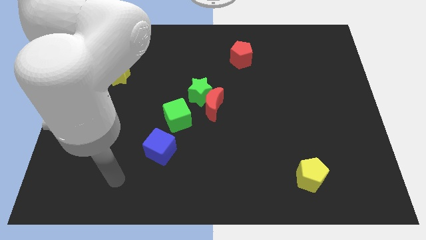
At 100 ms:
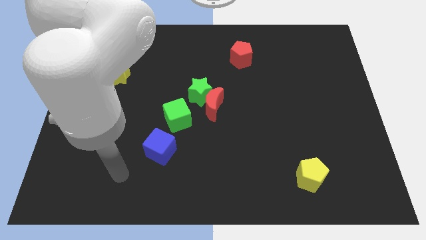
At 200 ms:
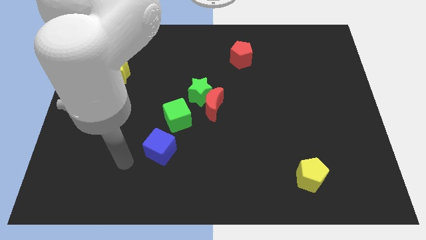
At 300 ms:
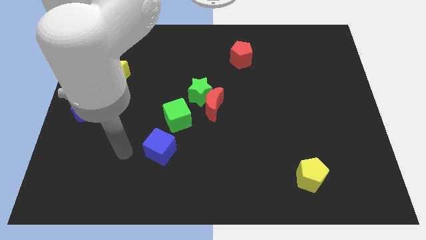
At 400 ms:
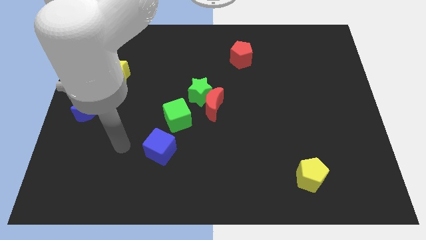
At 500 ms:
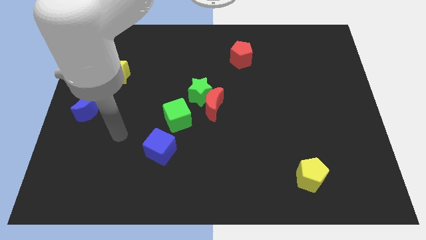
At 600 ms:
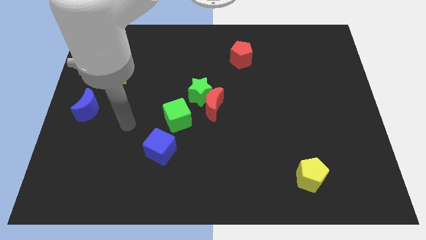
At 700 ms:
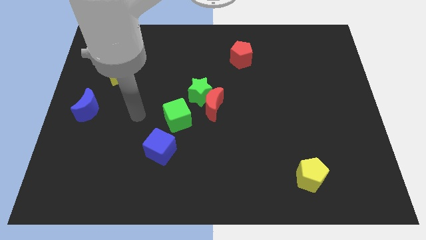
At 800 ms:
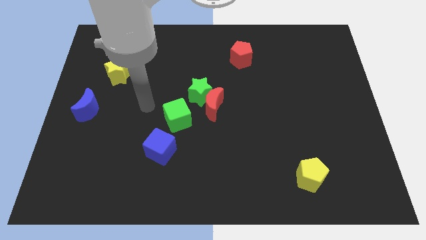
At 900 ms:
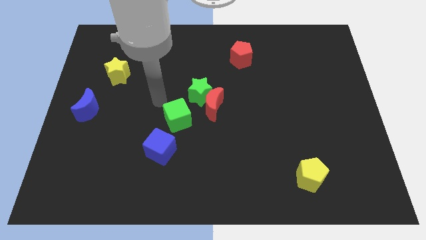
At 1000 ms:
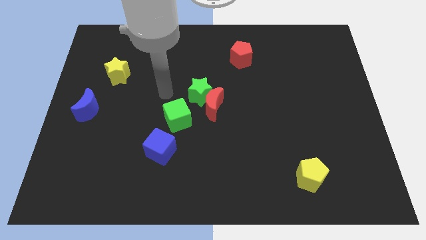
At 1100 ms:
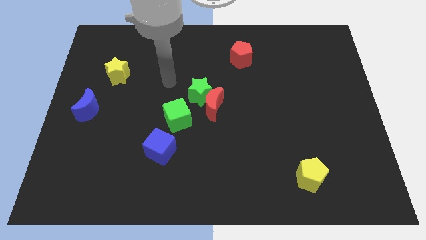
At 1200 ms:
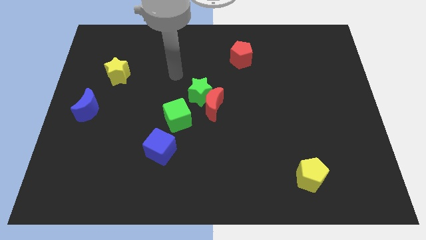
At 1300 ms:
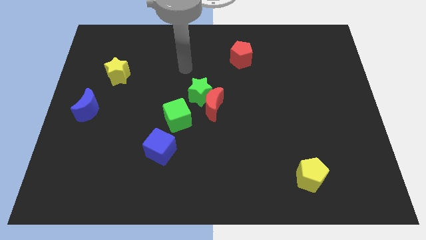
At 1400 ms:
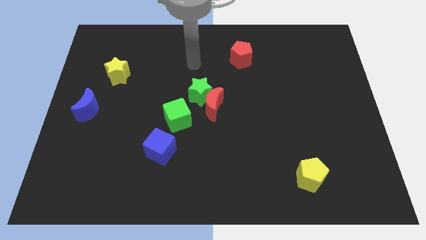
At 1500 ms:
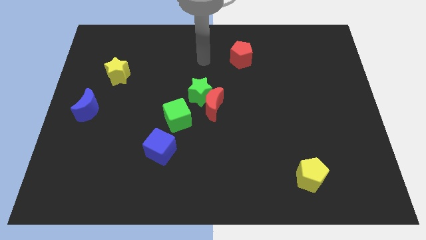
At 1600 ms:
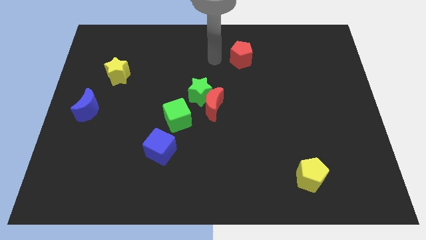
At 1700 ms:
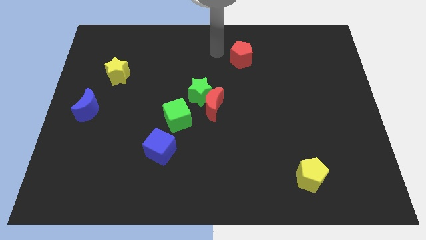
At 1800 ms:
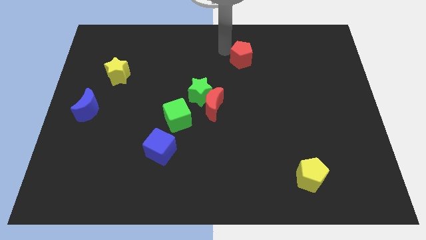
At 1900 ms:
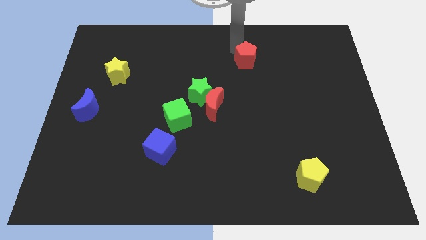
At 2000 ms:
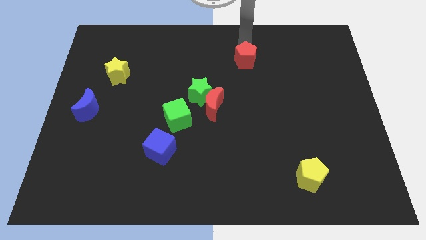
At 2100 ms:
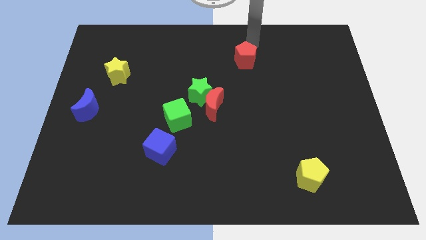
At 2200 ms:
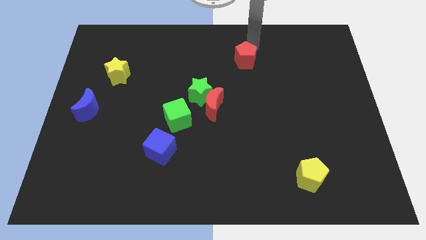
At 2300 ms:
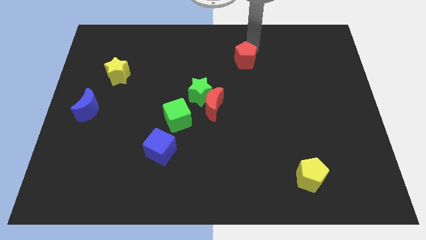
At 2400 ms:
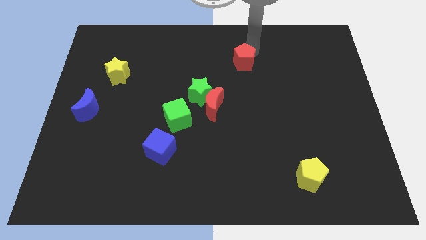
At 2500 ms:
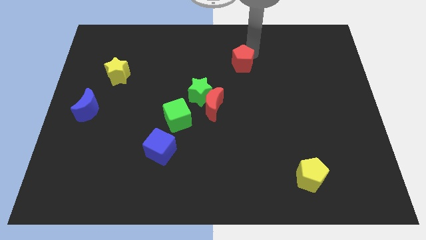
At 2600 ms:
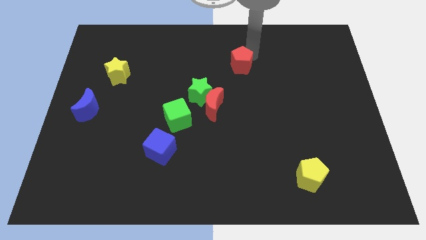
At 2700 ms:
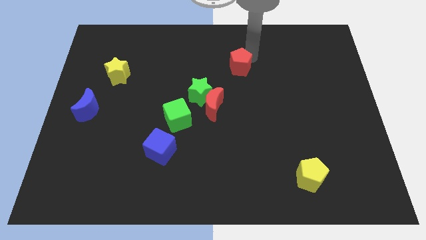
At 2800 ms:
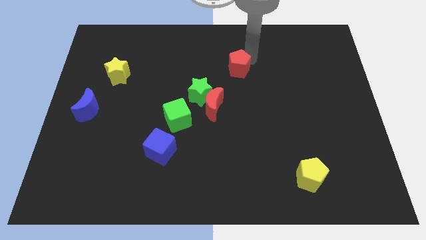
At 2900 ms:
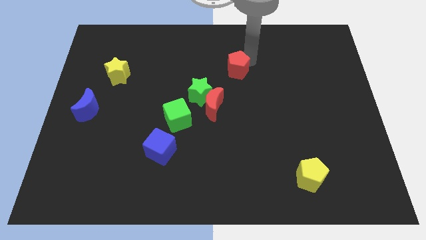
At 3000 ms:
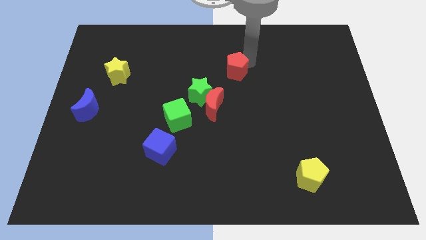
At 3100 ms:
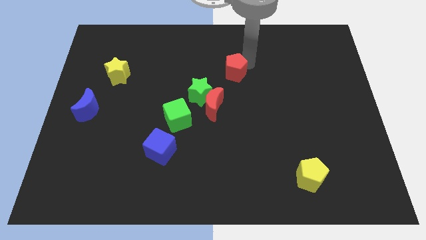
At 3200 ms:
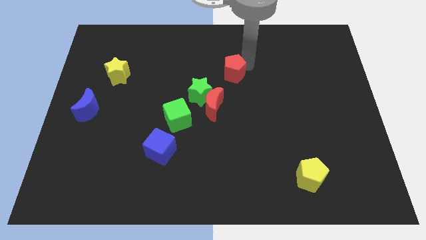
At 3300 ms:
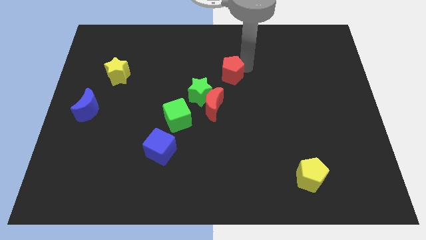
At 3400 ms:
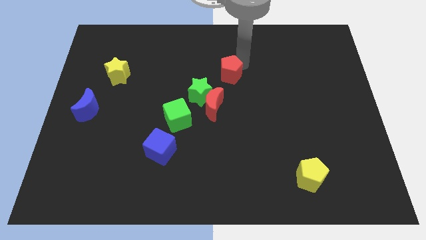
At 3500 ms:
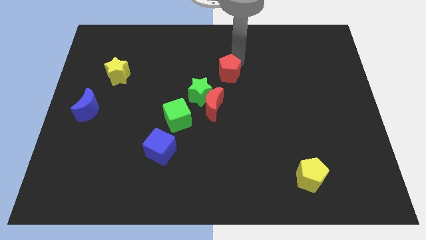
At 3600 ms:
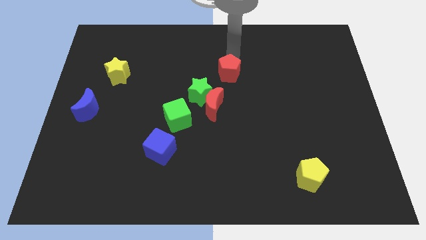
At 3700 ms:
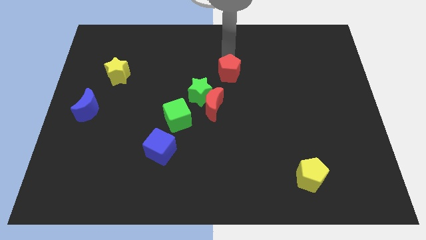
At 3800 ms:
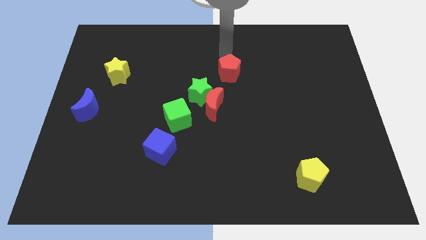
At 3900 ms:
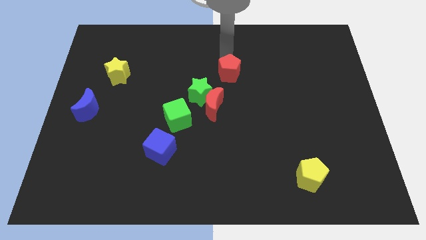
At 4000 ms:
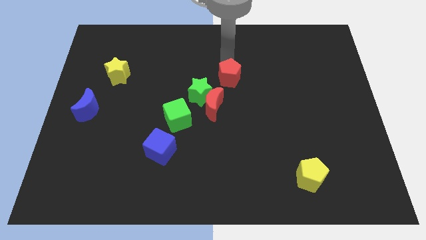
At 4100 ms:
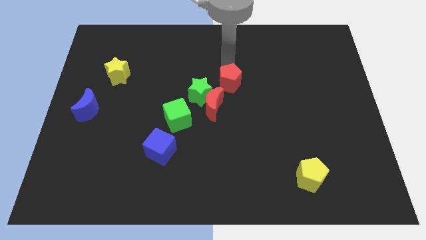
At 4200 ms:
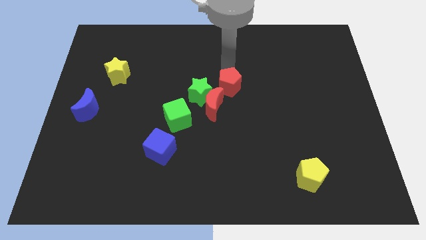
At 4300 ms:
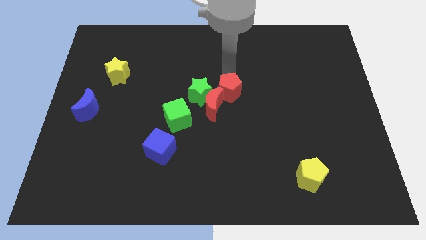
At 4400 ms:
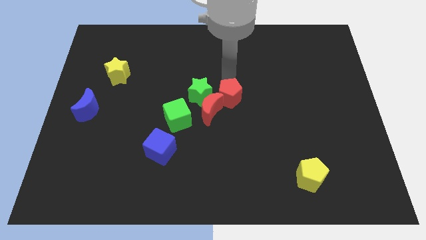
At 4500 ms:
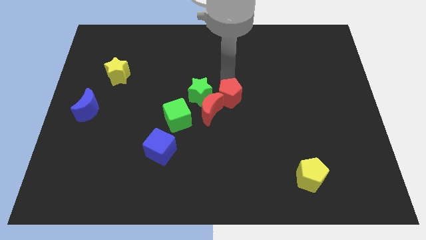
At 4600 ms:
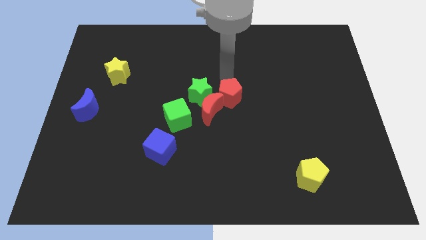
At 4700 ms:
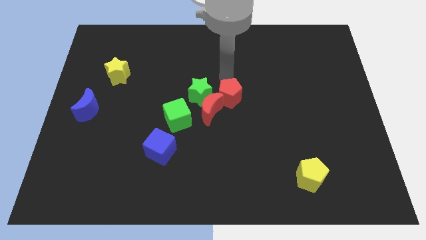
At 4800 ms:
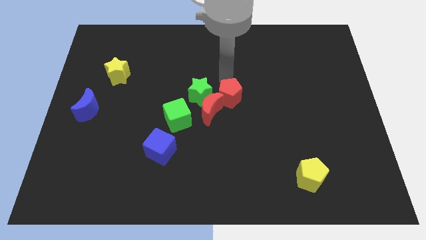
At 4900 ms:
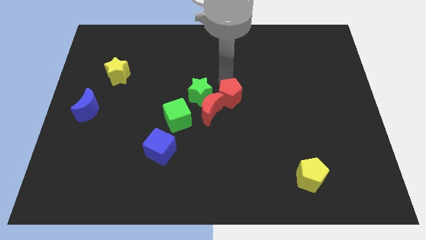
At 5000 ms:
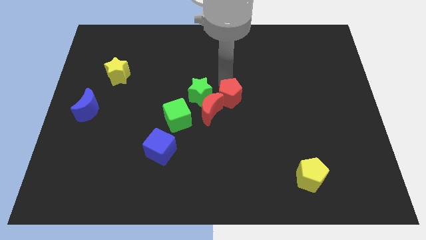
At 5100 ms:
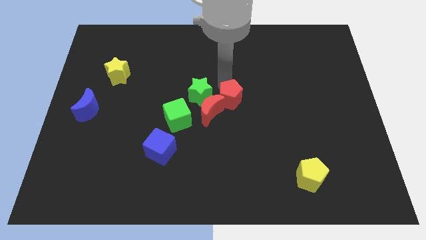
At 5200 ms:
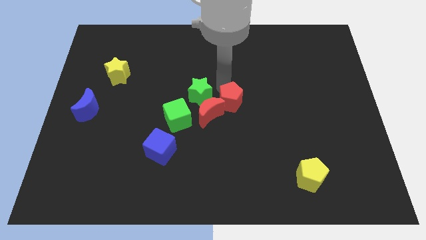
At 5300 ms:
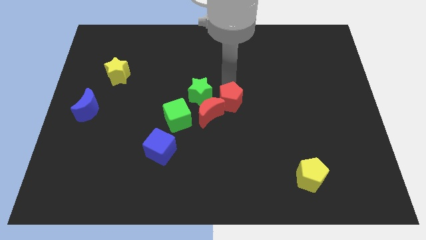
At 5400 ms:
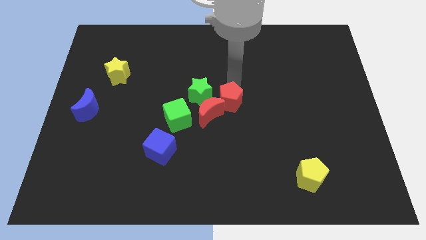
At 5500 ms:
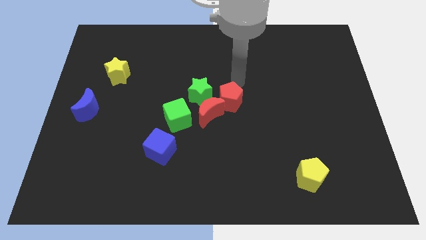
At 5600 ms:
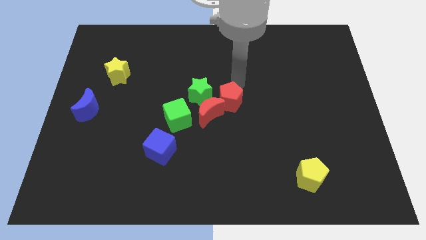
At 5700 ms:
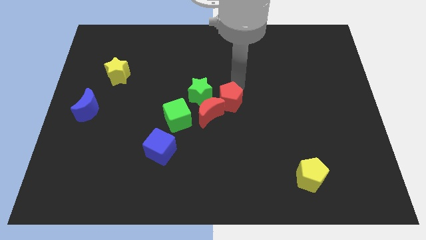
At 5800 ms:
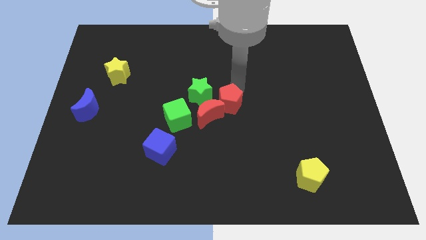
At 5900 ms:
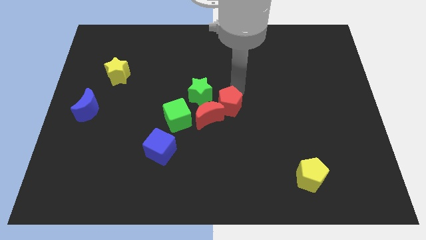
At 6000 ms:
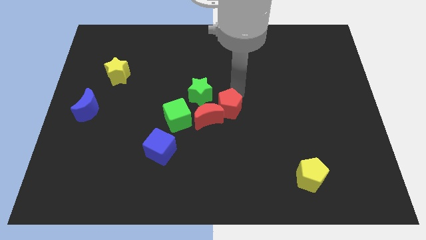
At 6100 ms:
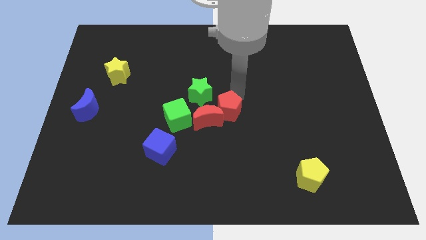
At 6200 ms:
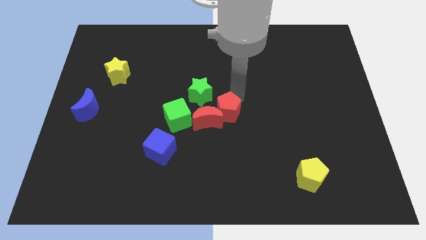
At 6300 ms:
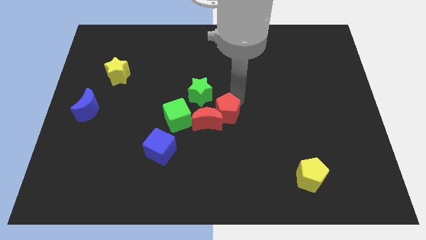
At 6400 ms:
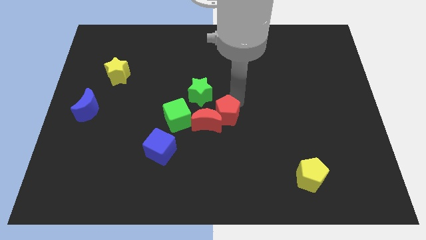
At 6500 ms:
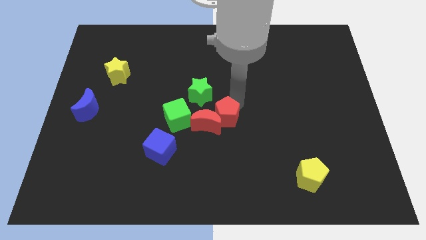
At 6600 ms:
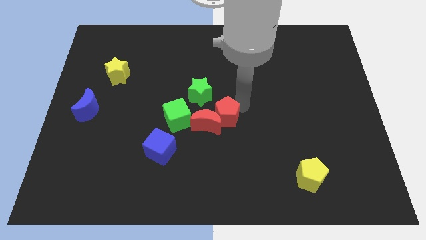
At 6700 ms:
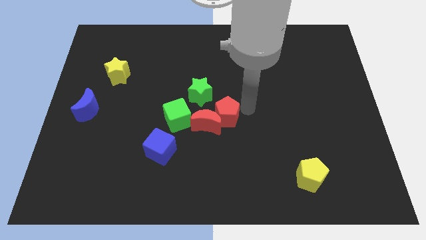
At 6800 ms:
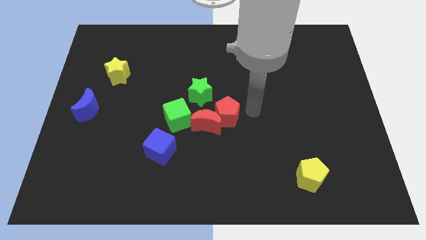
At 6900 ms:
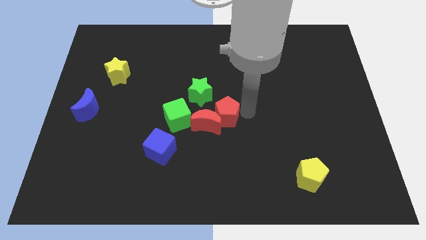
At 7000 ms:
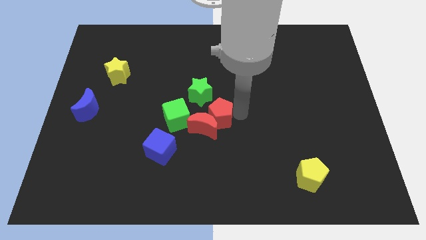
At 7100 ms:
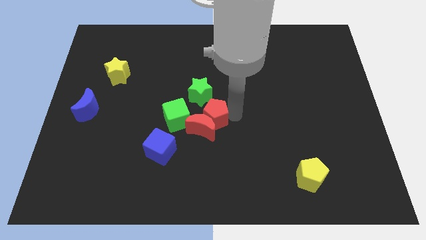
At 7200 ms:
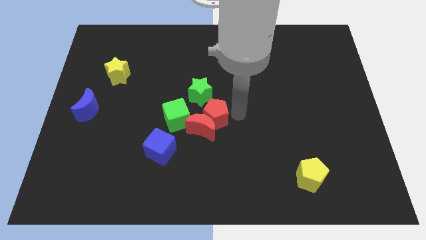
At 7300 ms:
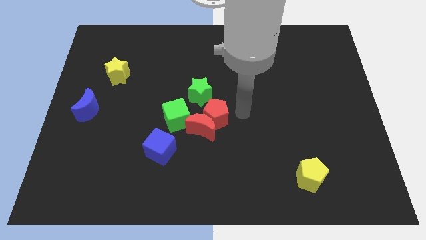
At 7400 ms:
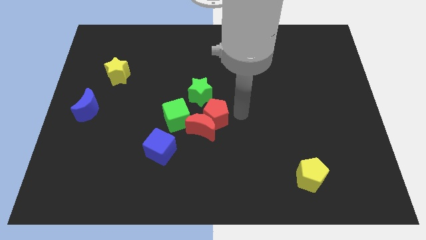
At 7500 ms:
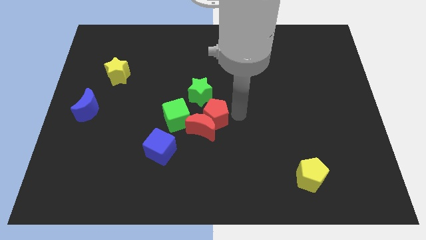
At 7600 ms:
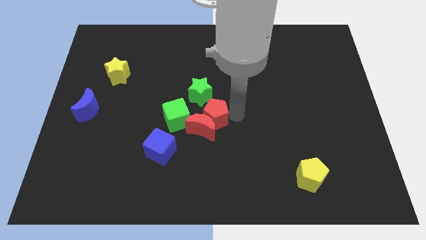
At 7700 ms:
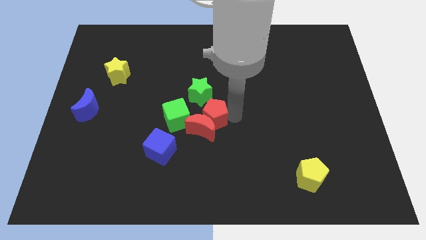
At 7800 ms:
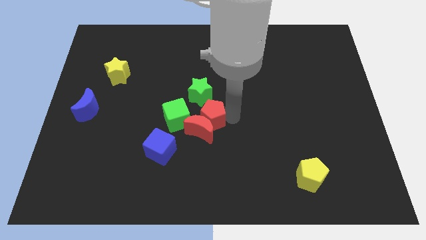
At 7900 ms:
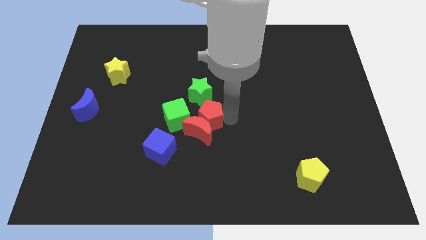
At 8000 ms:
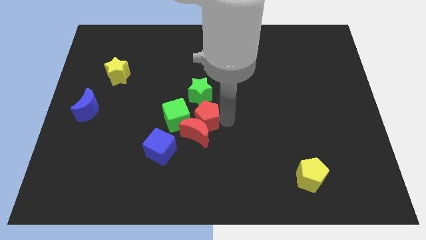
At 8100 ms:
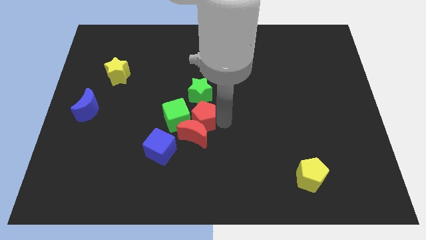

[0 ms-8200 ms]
move the red pentagon towards the green cube
